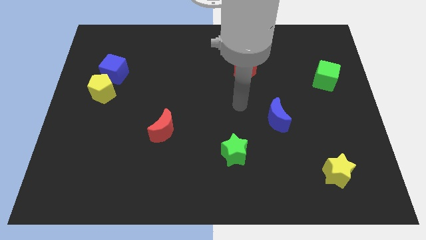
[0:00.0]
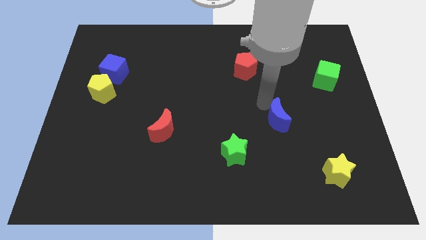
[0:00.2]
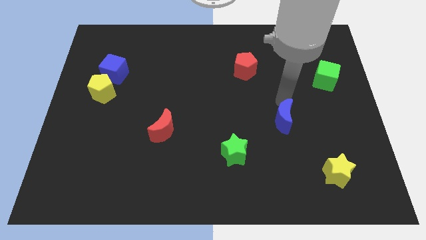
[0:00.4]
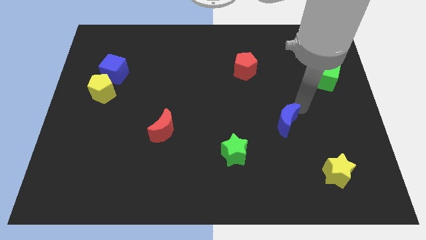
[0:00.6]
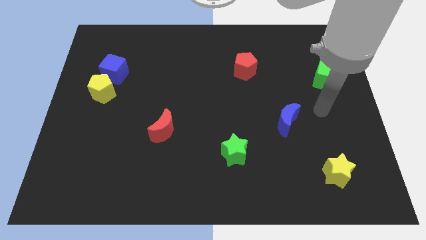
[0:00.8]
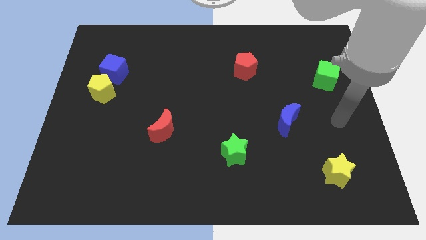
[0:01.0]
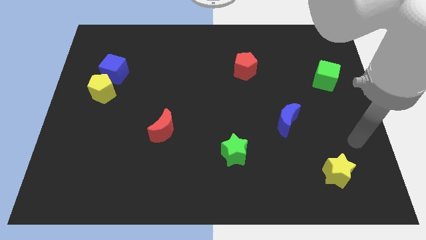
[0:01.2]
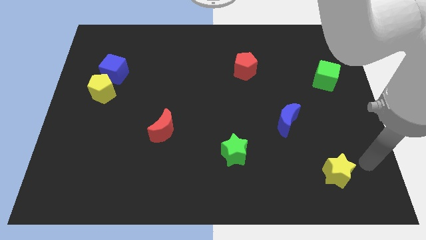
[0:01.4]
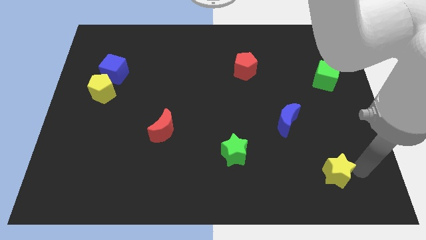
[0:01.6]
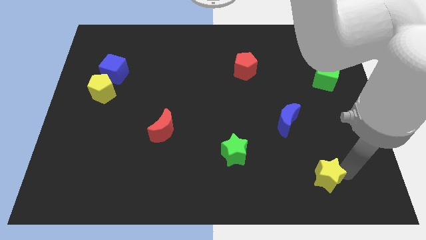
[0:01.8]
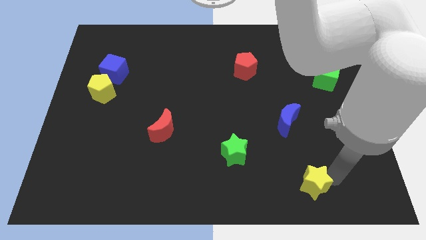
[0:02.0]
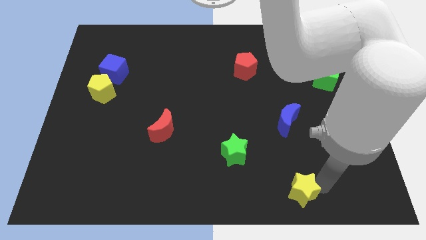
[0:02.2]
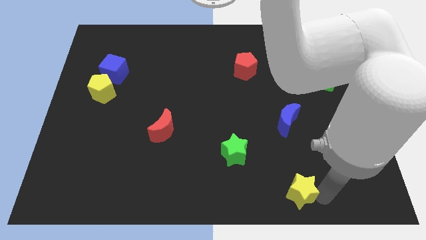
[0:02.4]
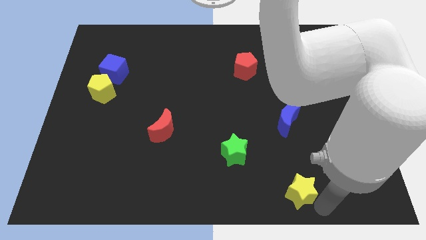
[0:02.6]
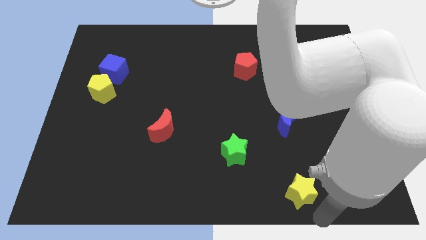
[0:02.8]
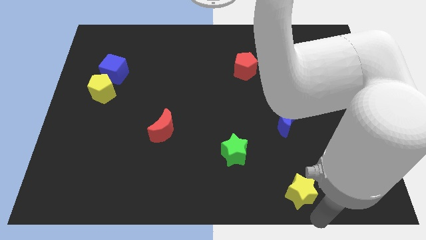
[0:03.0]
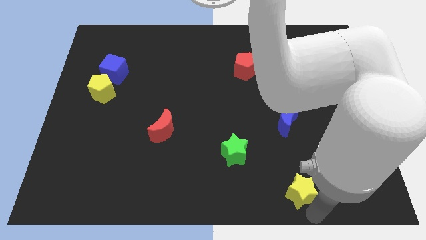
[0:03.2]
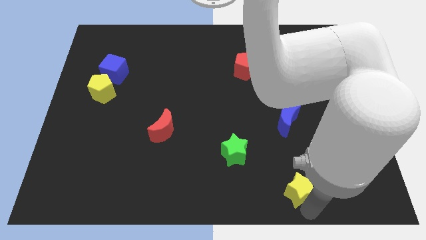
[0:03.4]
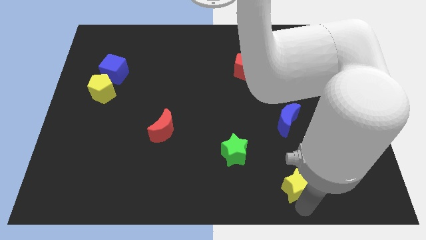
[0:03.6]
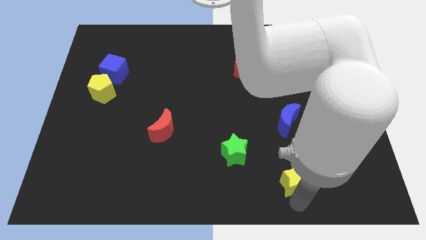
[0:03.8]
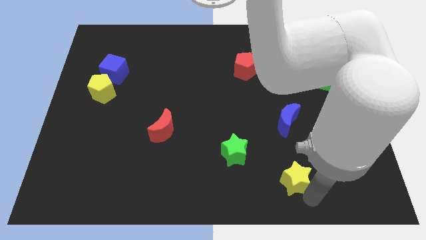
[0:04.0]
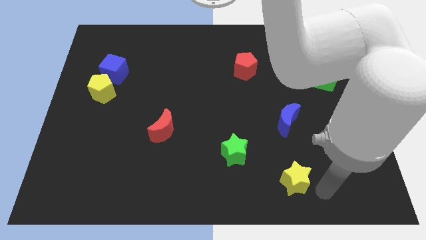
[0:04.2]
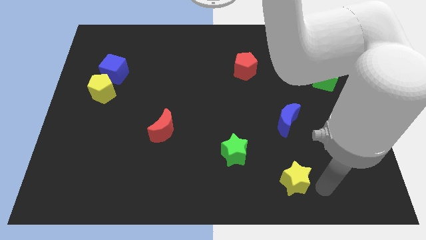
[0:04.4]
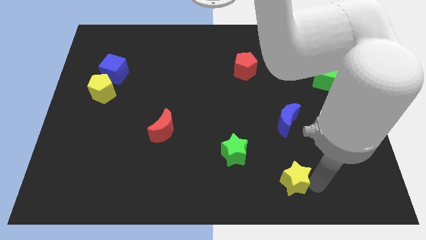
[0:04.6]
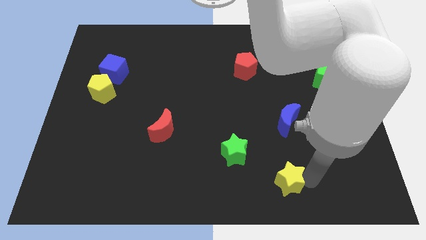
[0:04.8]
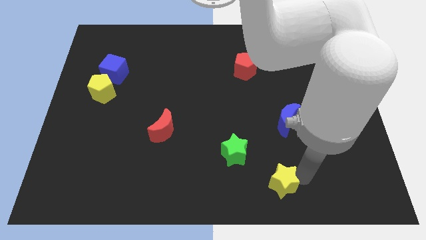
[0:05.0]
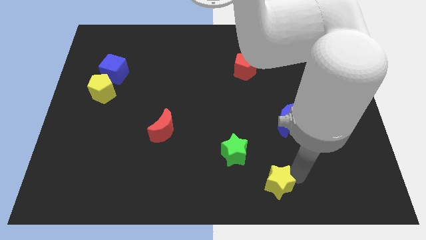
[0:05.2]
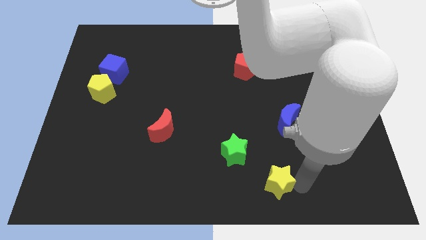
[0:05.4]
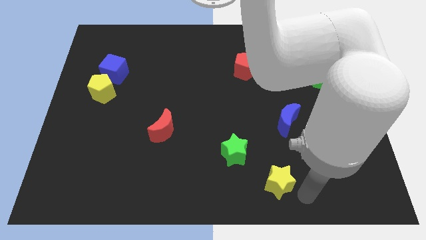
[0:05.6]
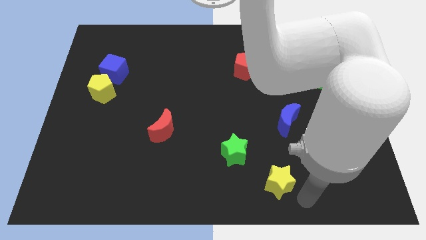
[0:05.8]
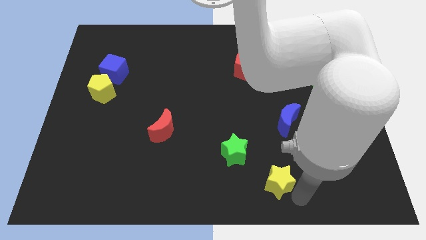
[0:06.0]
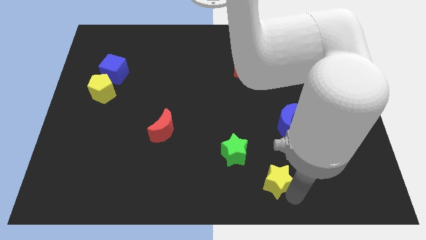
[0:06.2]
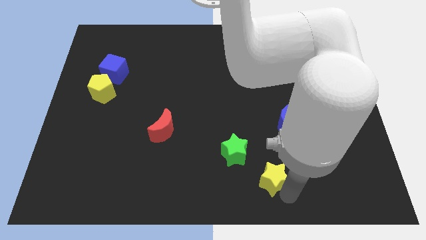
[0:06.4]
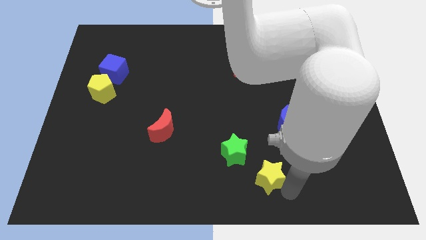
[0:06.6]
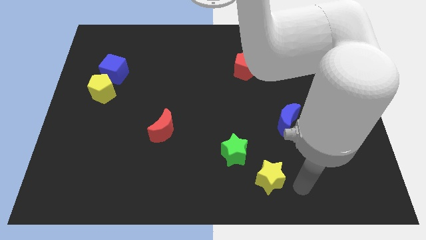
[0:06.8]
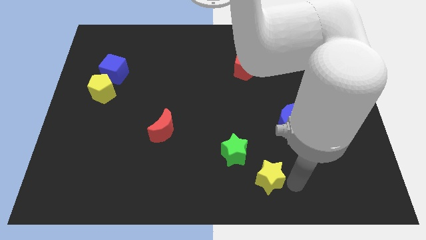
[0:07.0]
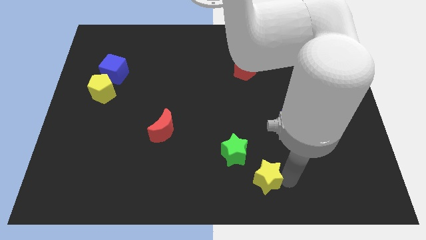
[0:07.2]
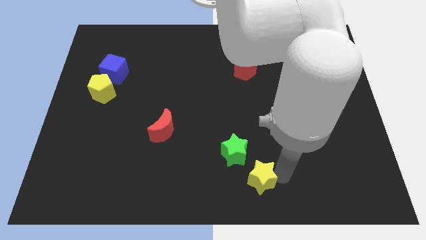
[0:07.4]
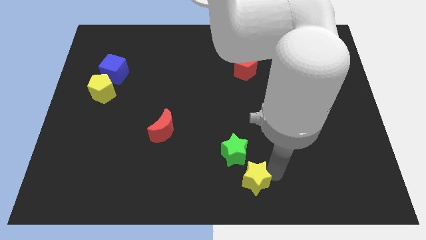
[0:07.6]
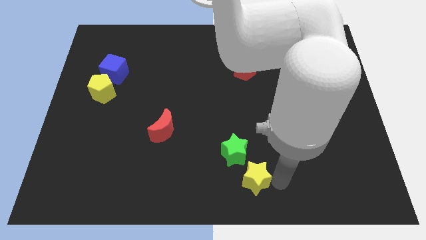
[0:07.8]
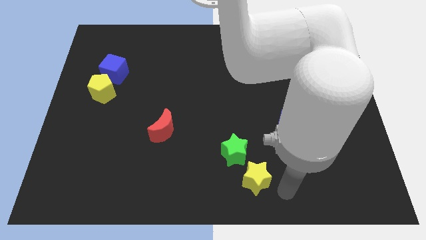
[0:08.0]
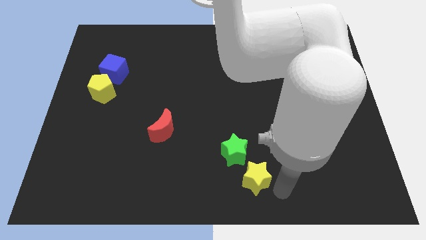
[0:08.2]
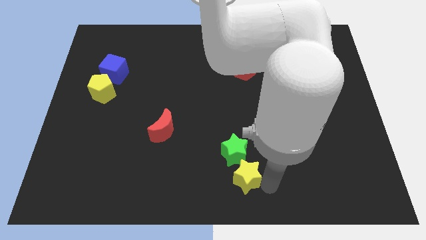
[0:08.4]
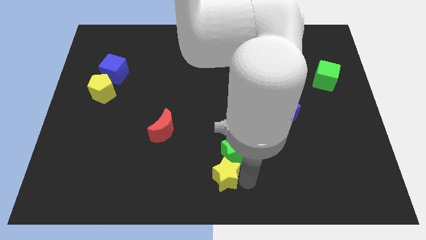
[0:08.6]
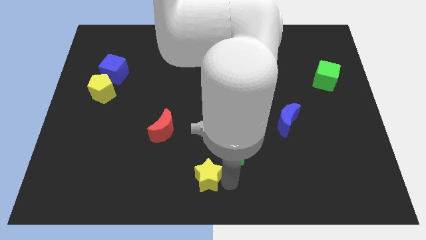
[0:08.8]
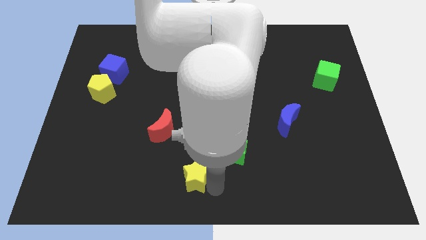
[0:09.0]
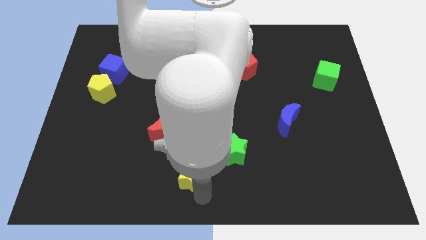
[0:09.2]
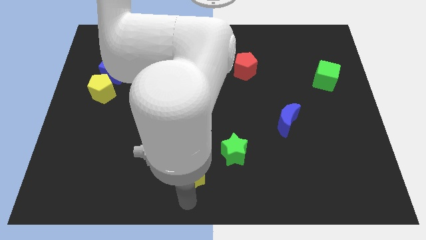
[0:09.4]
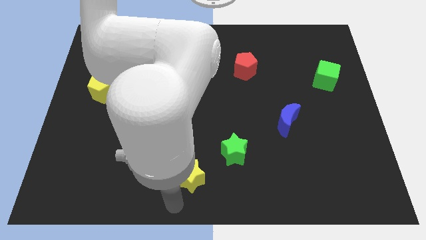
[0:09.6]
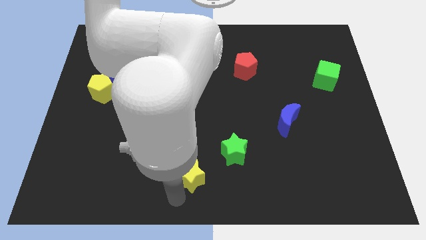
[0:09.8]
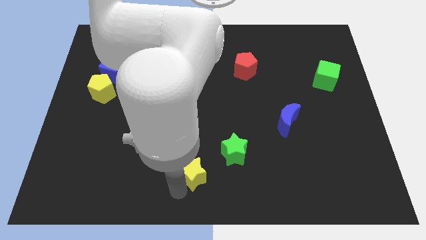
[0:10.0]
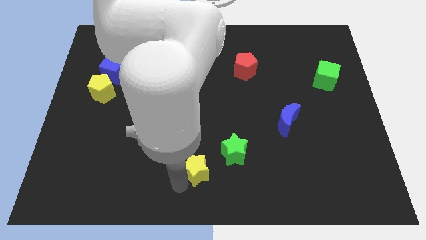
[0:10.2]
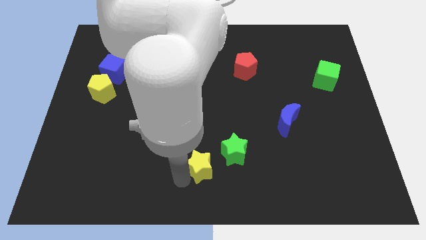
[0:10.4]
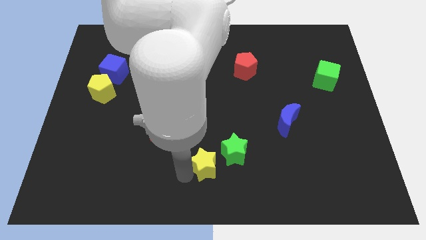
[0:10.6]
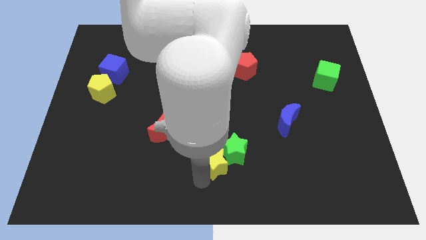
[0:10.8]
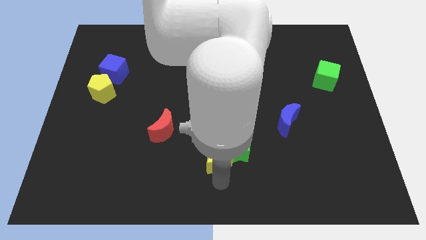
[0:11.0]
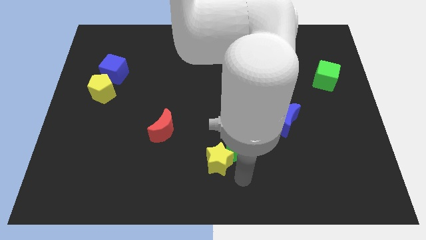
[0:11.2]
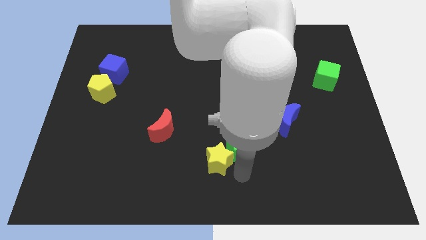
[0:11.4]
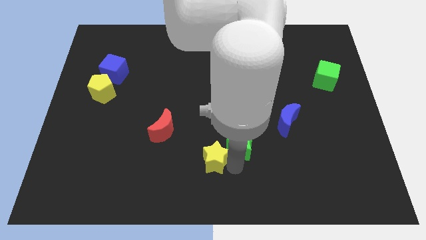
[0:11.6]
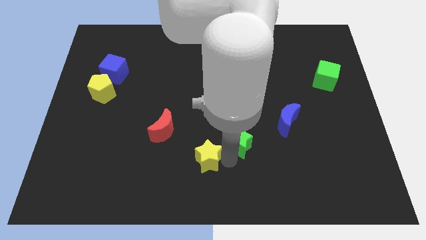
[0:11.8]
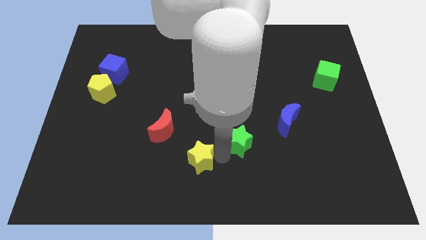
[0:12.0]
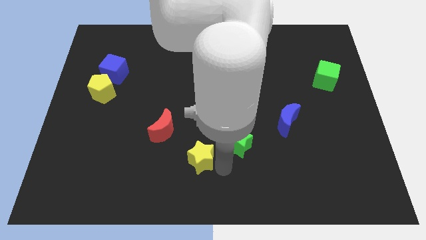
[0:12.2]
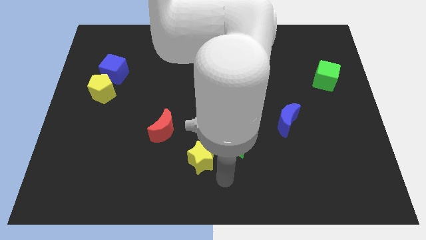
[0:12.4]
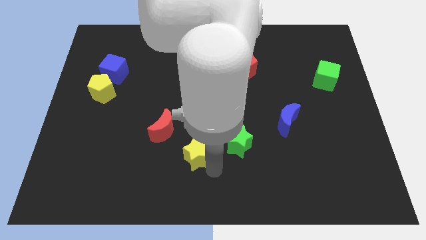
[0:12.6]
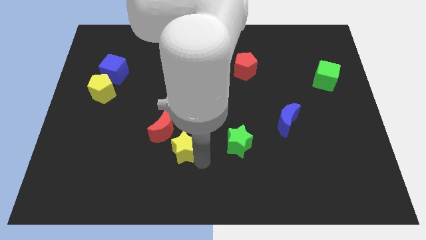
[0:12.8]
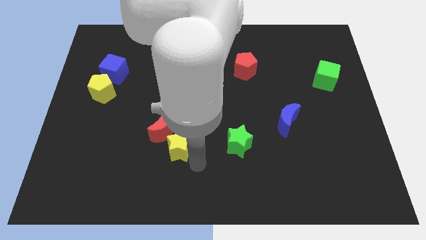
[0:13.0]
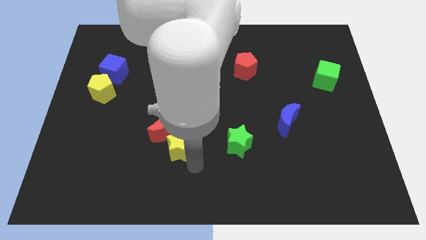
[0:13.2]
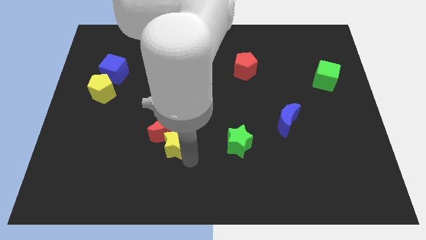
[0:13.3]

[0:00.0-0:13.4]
slide the yellow star to the red moon
